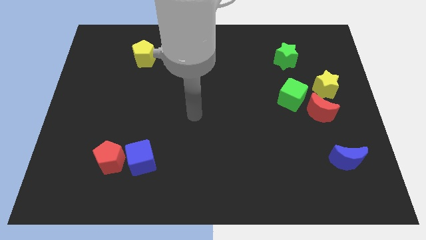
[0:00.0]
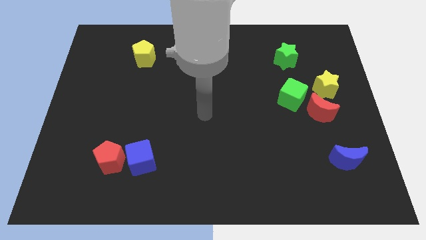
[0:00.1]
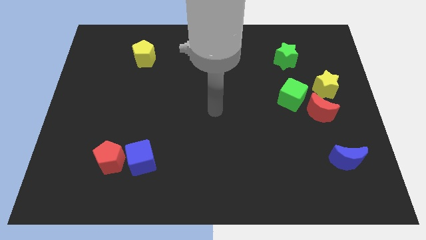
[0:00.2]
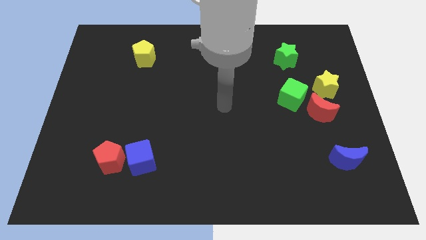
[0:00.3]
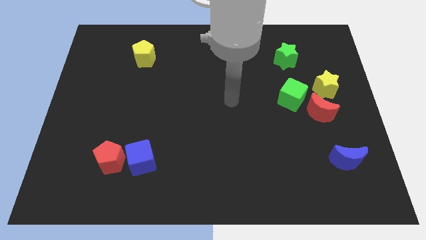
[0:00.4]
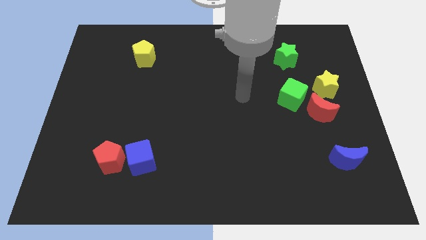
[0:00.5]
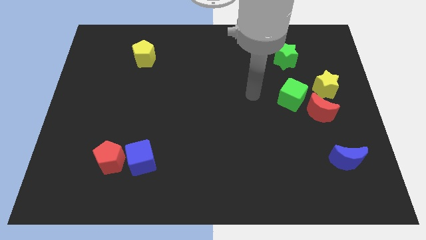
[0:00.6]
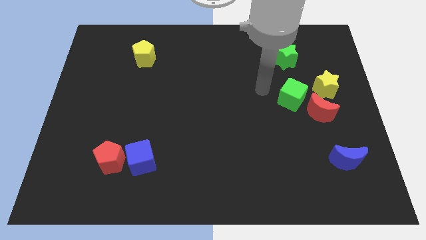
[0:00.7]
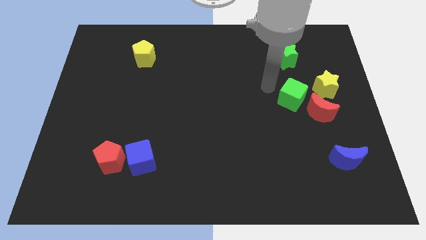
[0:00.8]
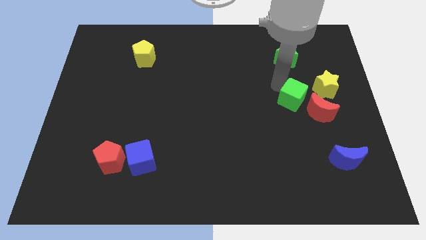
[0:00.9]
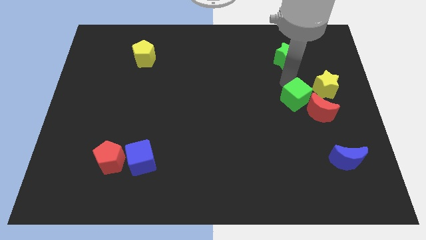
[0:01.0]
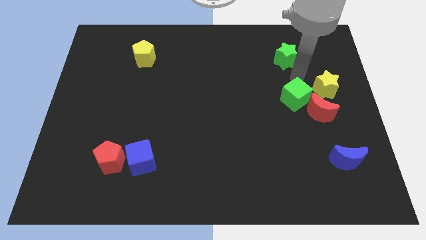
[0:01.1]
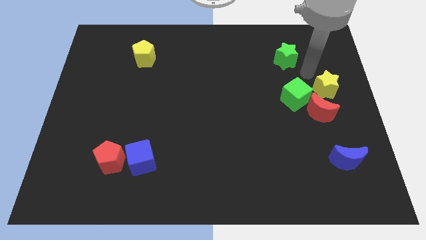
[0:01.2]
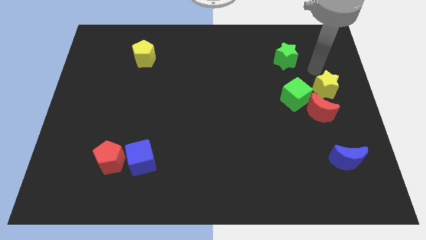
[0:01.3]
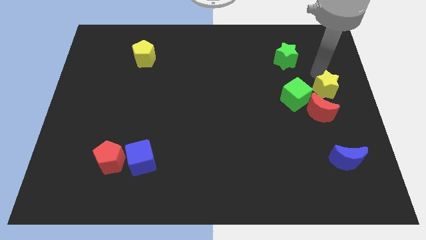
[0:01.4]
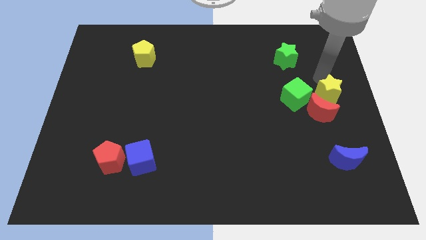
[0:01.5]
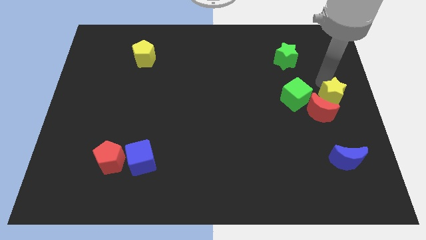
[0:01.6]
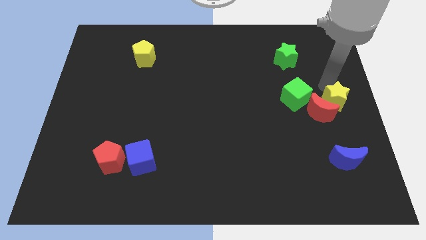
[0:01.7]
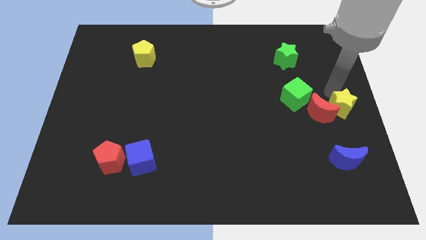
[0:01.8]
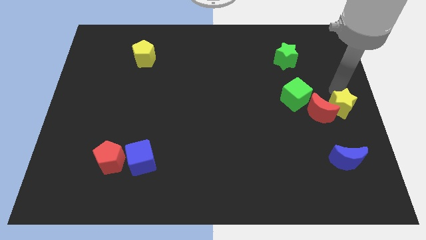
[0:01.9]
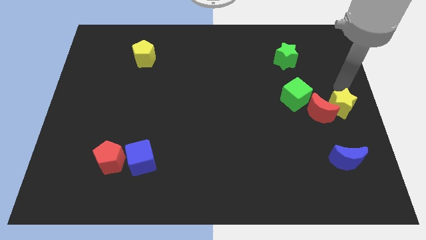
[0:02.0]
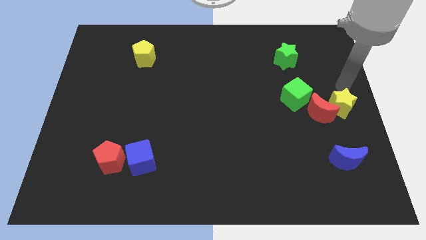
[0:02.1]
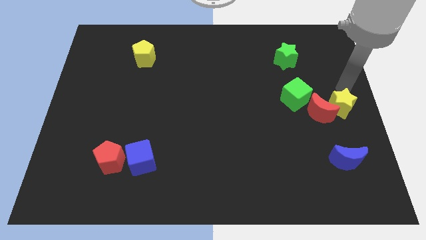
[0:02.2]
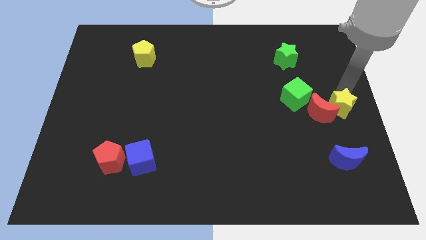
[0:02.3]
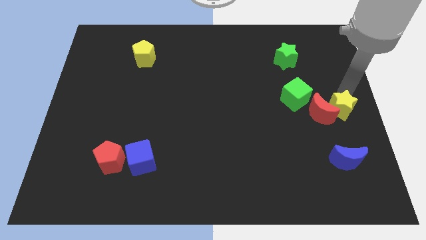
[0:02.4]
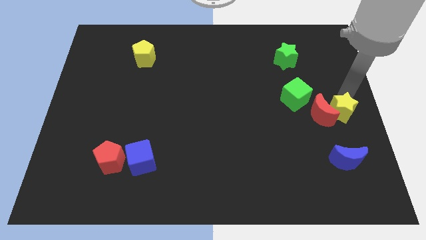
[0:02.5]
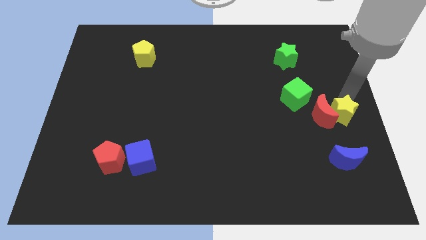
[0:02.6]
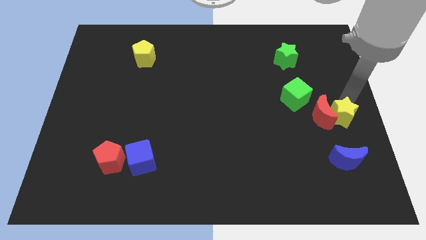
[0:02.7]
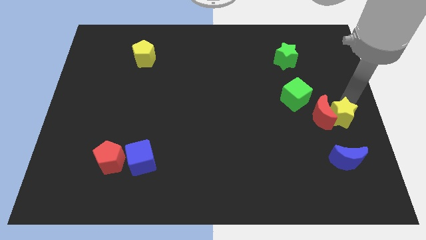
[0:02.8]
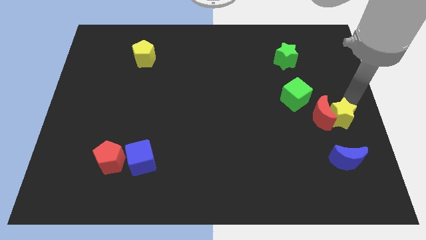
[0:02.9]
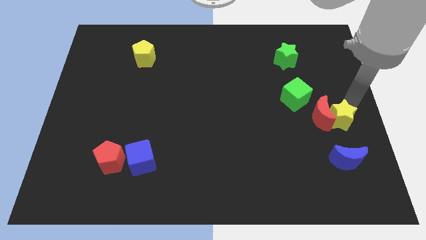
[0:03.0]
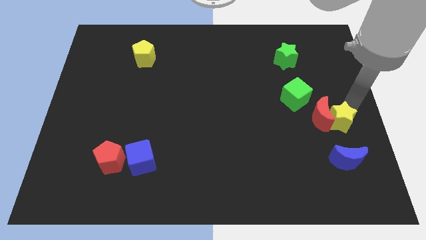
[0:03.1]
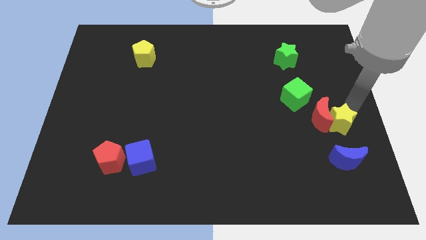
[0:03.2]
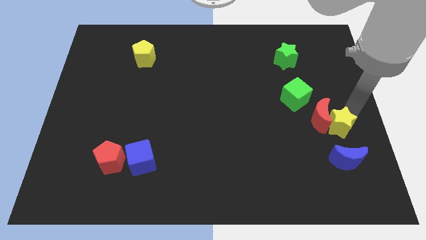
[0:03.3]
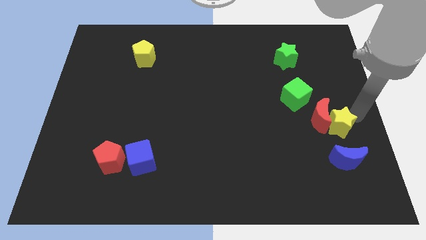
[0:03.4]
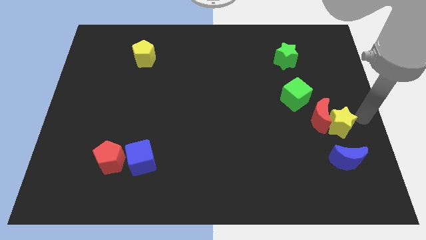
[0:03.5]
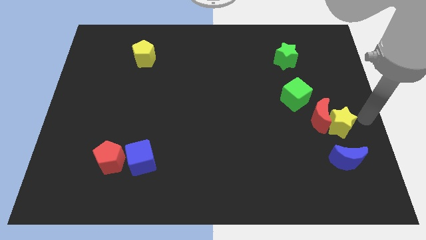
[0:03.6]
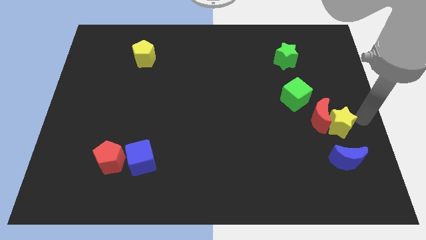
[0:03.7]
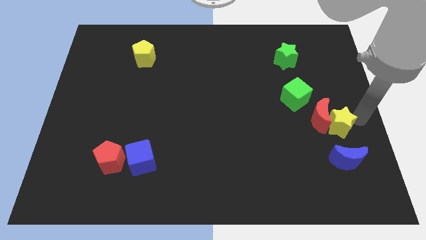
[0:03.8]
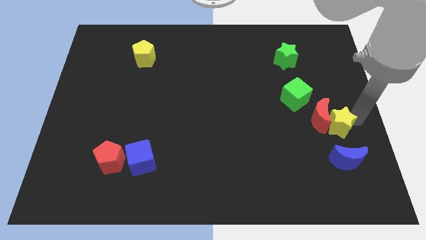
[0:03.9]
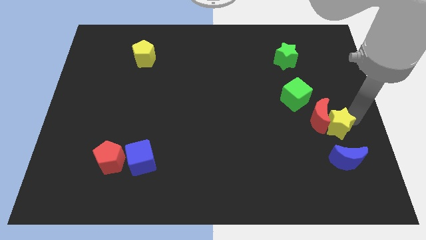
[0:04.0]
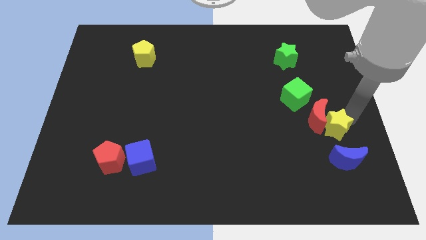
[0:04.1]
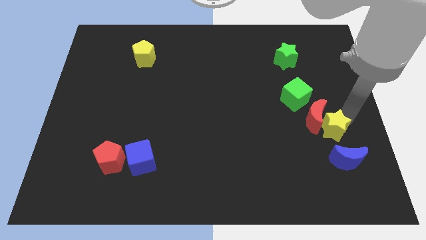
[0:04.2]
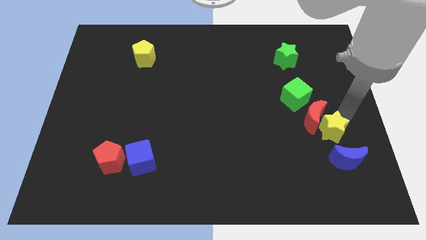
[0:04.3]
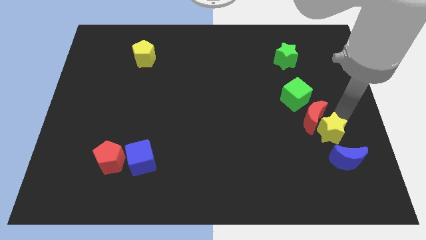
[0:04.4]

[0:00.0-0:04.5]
slide the yellow star a bit down and left

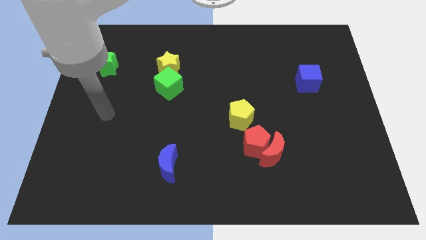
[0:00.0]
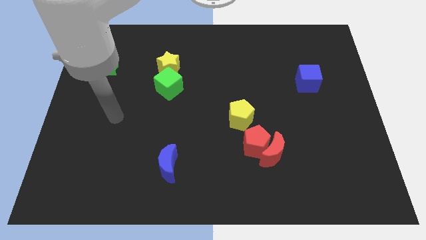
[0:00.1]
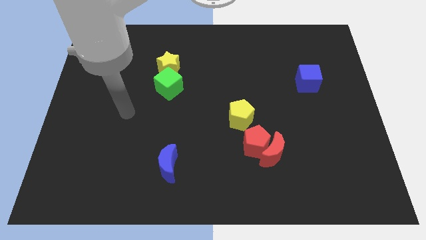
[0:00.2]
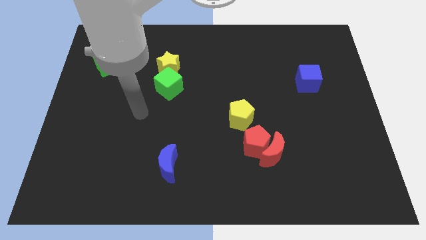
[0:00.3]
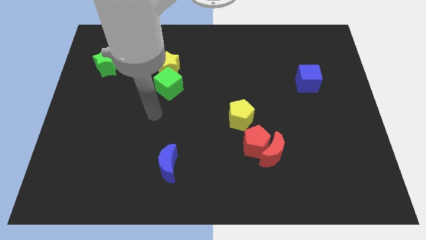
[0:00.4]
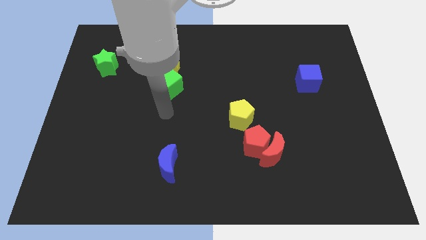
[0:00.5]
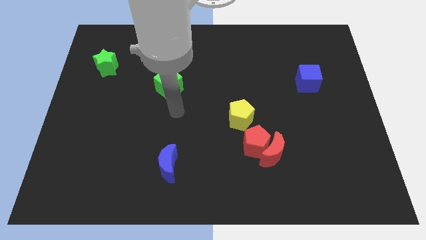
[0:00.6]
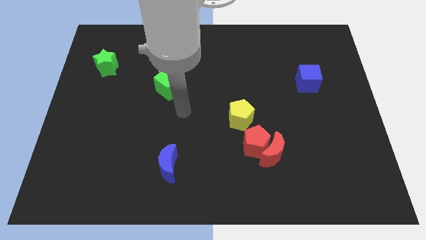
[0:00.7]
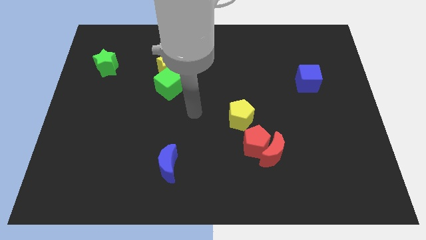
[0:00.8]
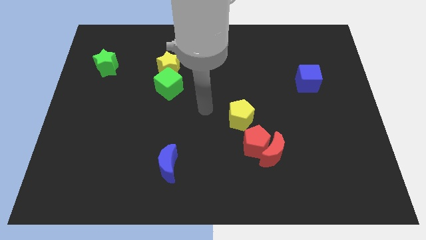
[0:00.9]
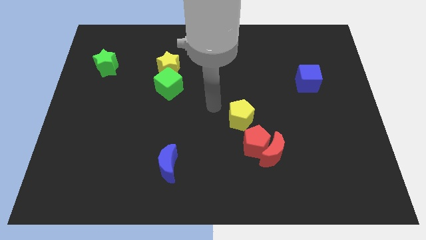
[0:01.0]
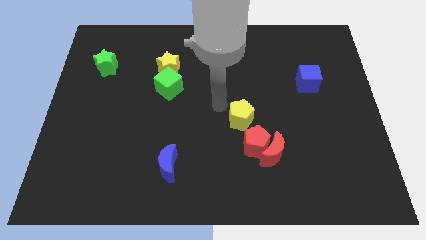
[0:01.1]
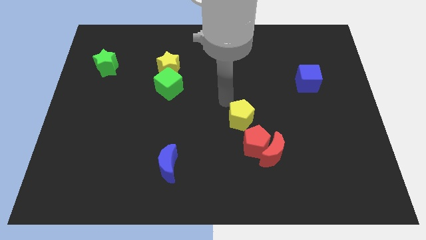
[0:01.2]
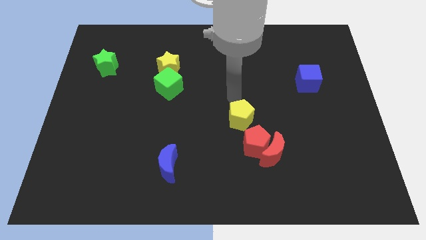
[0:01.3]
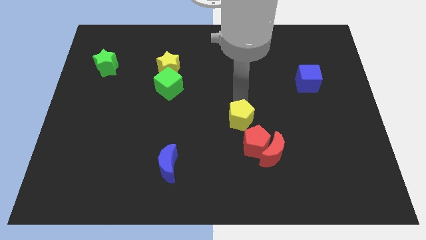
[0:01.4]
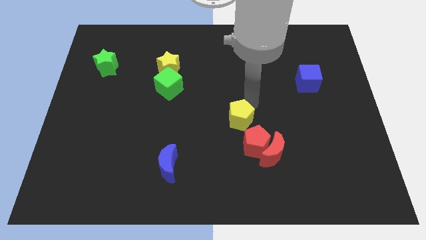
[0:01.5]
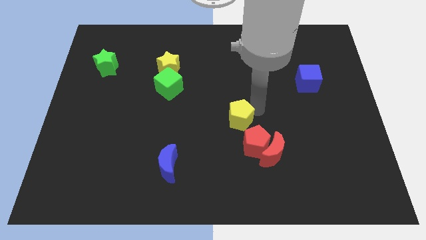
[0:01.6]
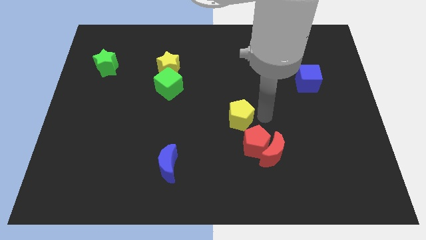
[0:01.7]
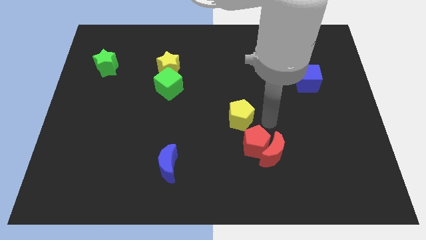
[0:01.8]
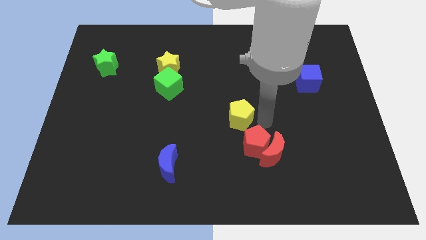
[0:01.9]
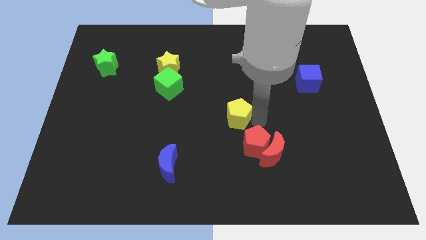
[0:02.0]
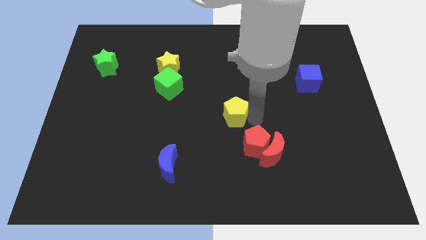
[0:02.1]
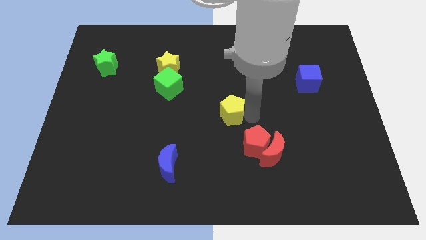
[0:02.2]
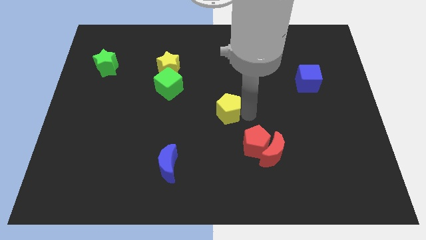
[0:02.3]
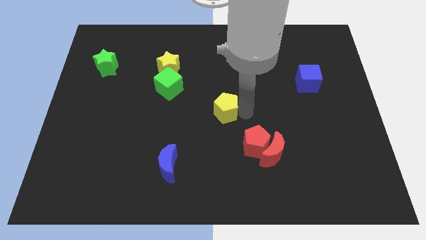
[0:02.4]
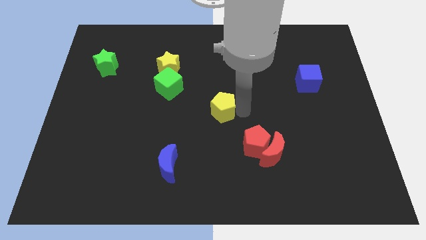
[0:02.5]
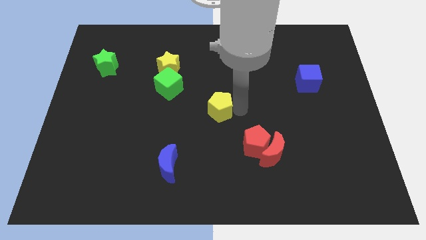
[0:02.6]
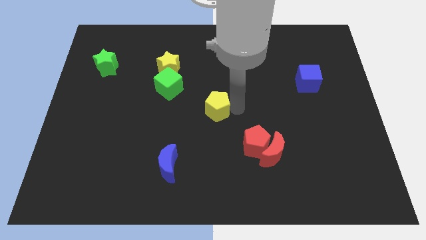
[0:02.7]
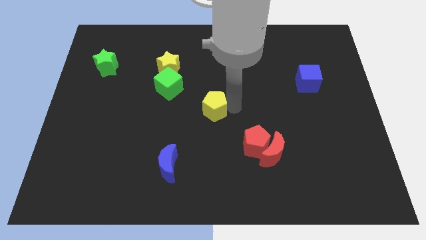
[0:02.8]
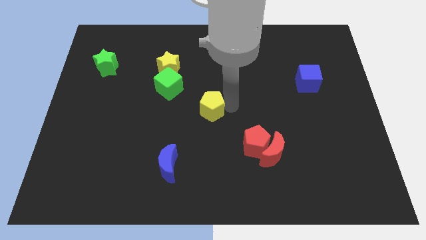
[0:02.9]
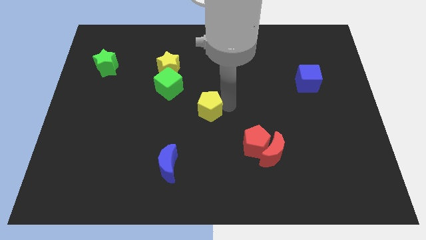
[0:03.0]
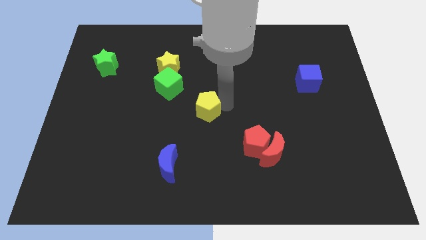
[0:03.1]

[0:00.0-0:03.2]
move the yellow pentagon slightly left
